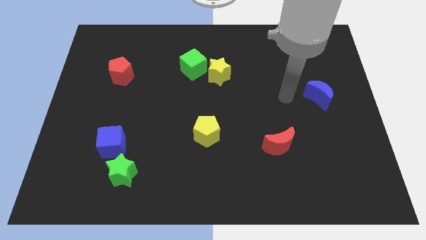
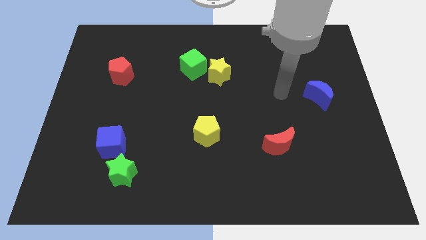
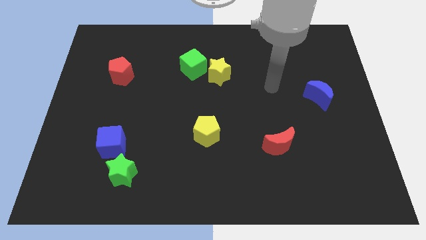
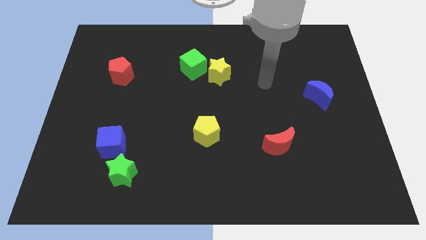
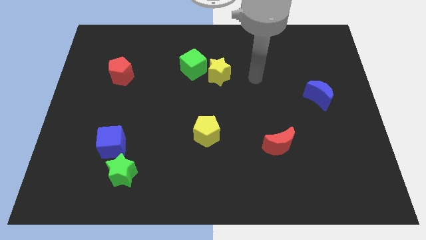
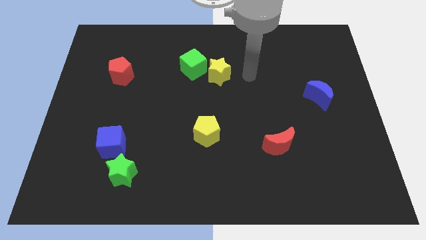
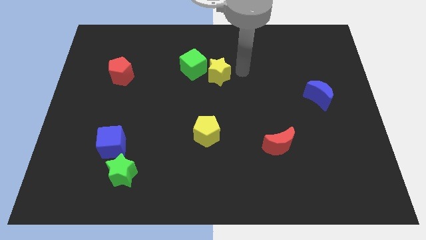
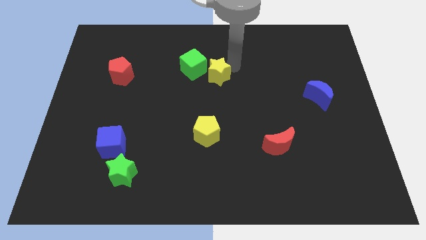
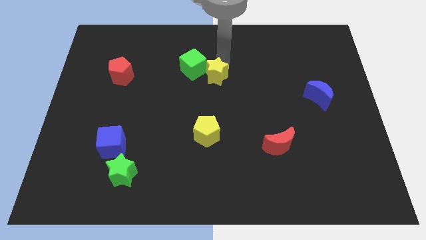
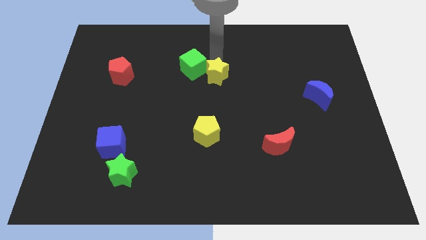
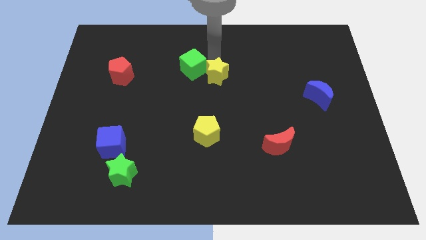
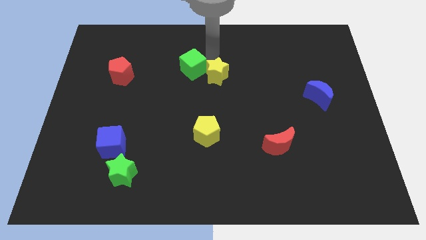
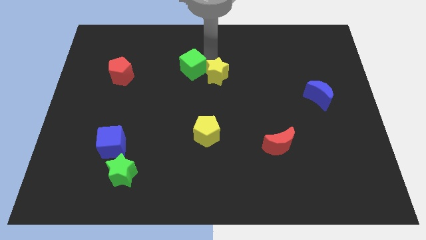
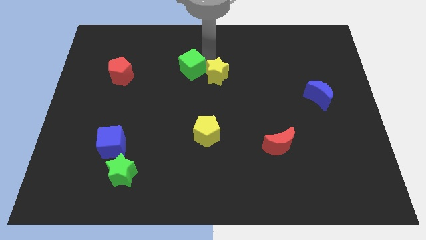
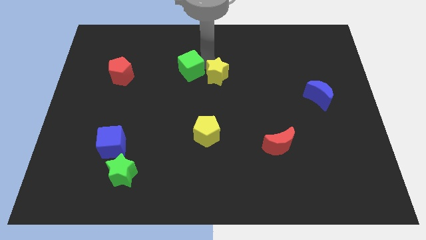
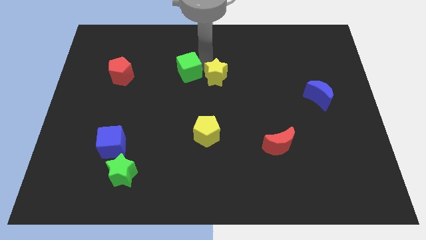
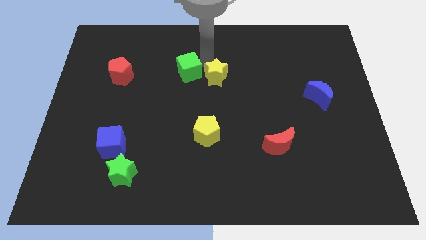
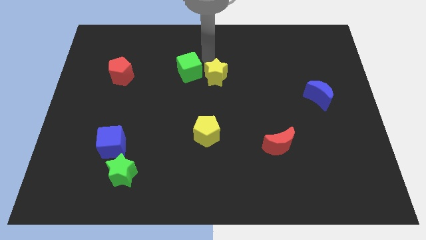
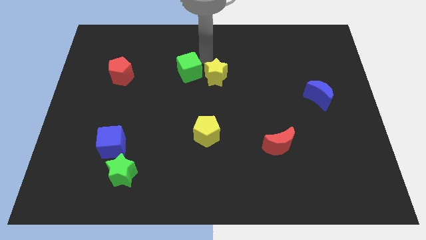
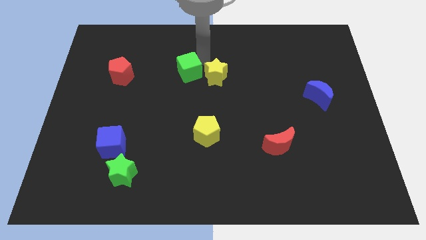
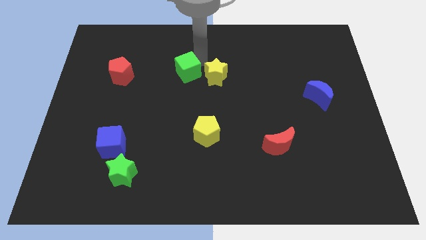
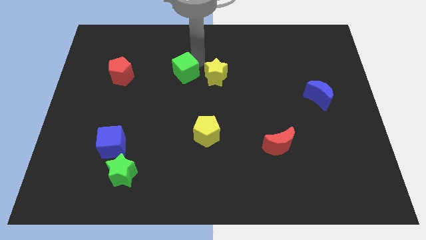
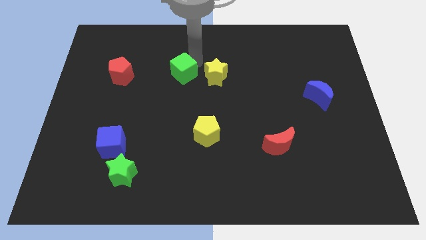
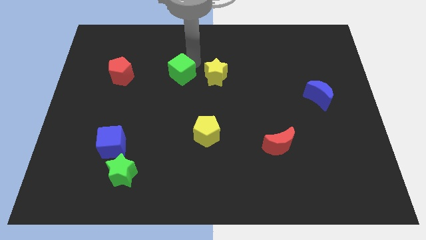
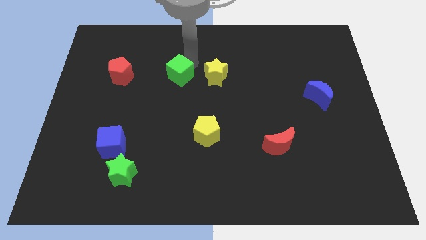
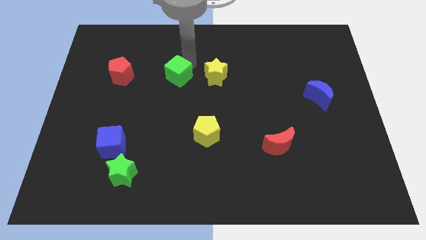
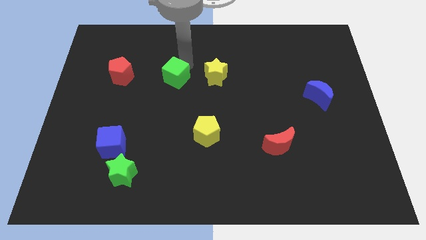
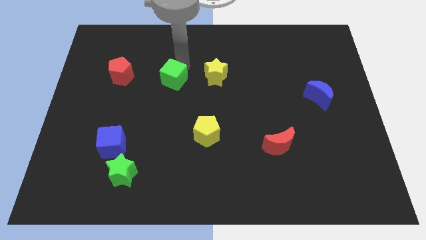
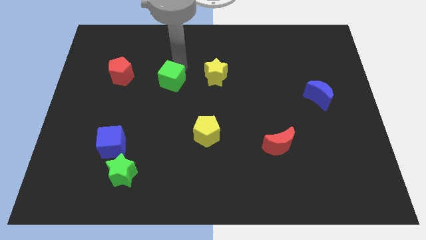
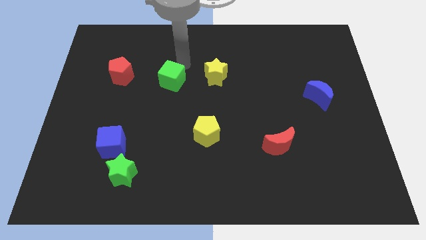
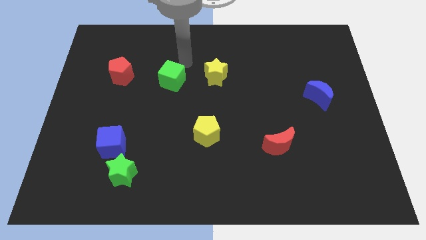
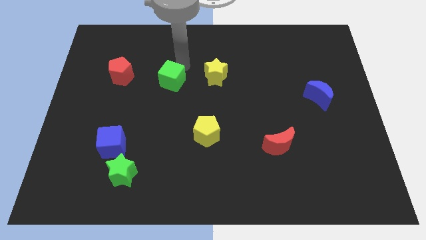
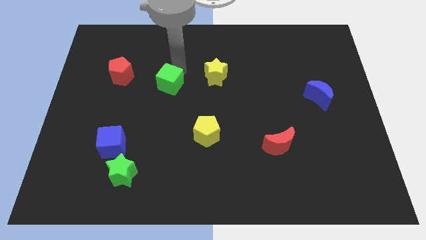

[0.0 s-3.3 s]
slightly slide the green cube diagonally downwards and left

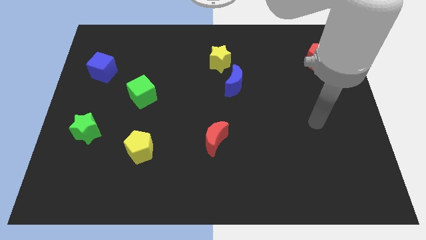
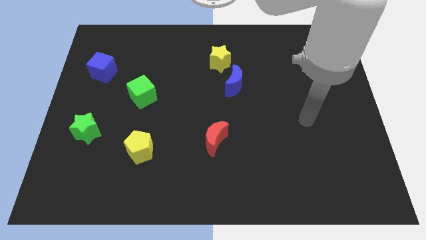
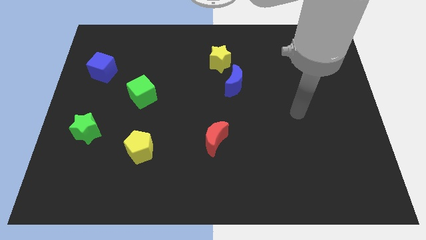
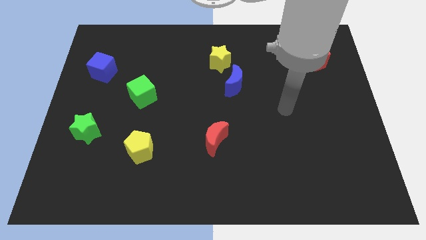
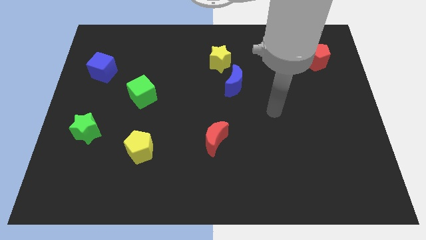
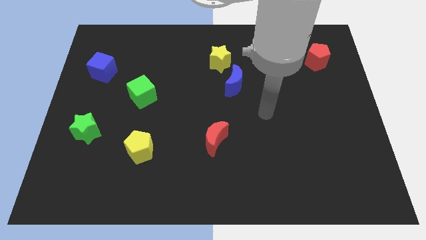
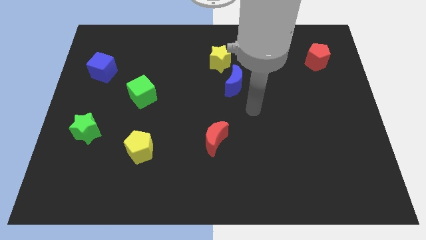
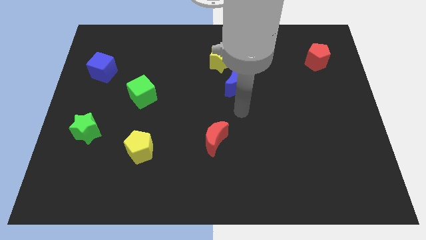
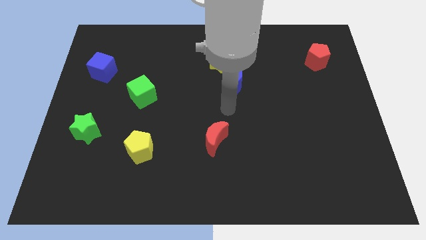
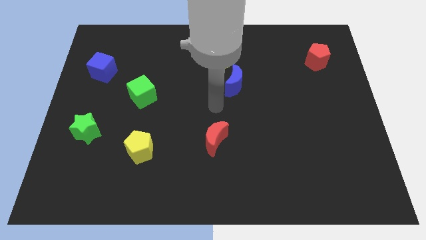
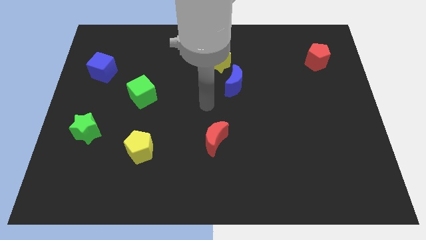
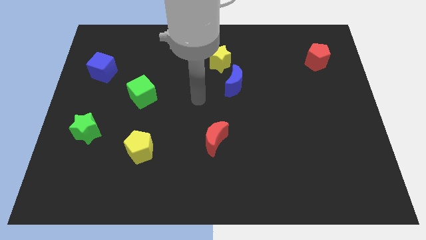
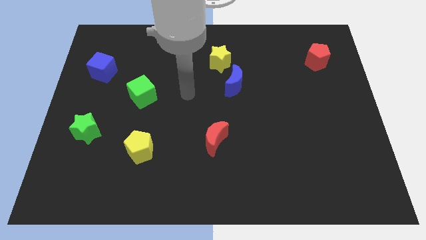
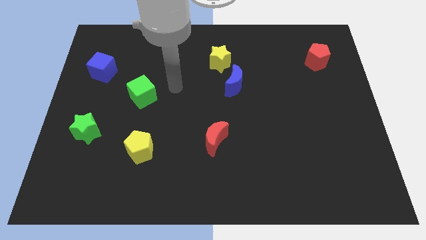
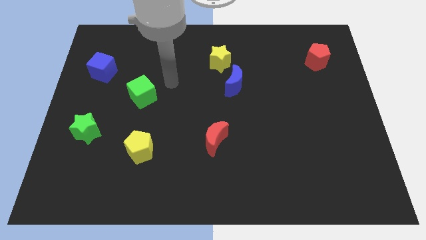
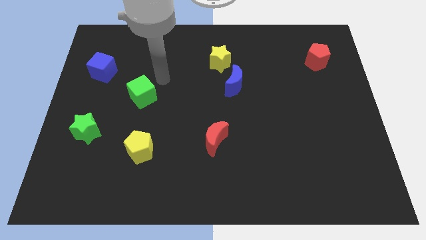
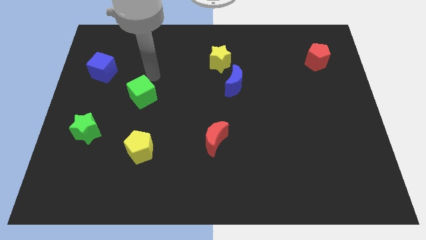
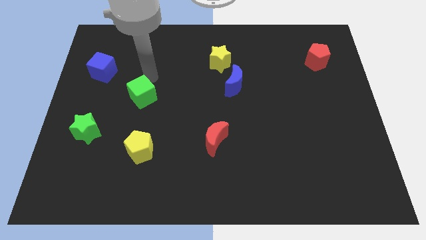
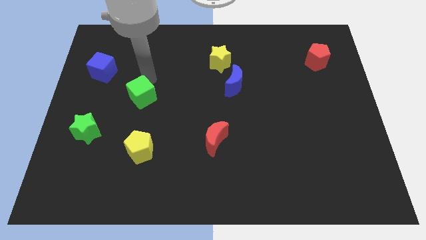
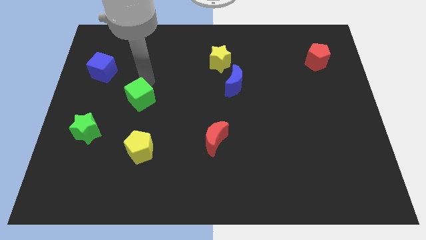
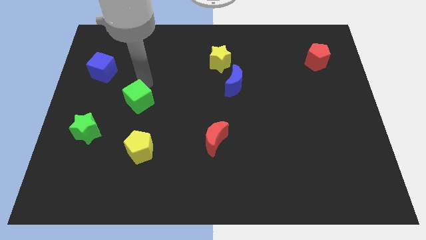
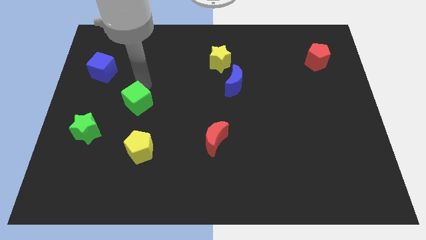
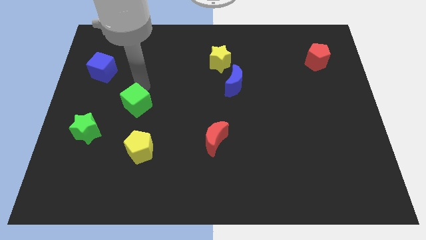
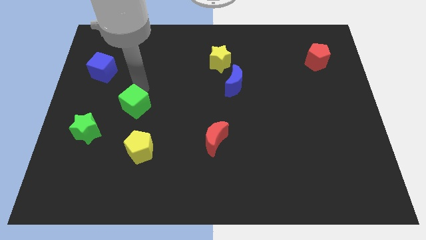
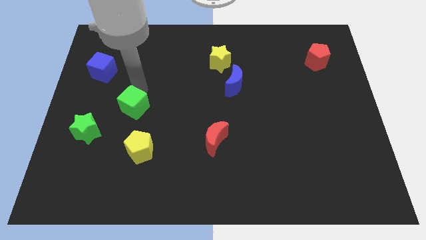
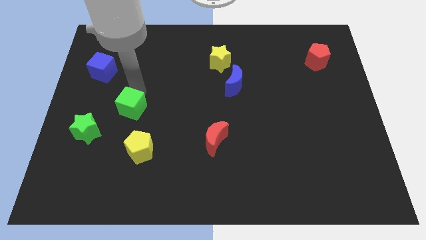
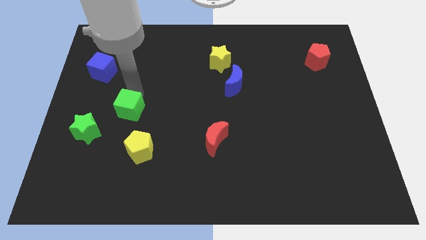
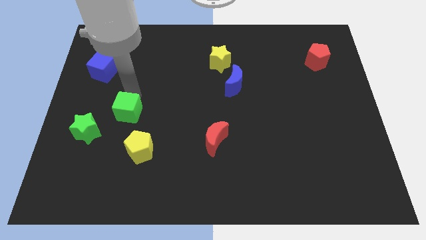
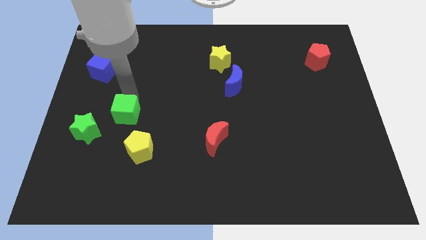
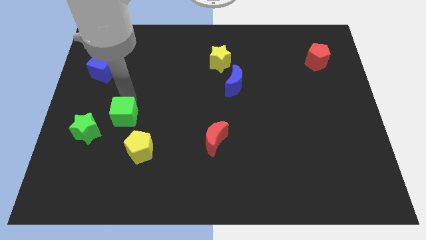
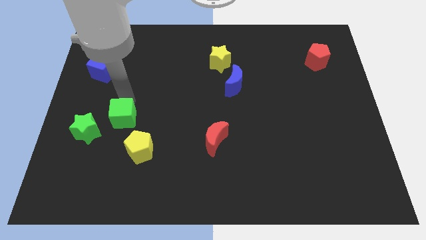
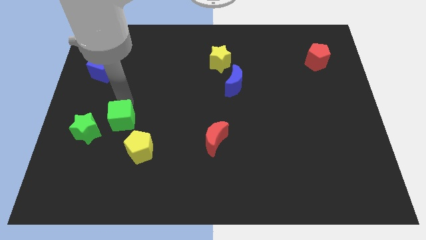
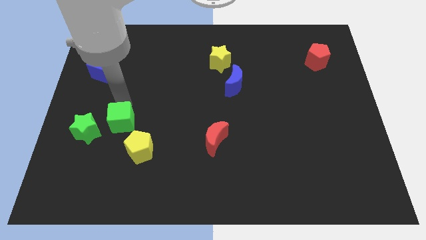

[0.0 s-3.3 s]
push the green cube downwards a bit

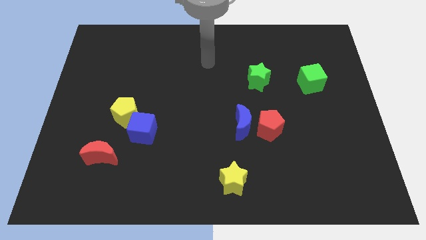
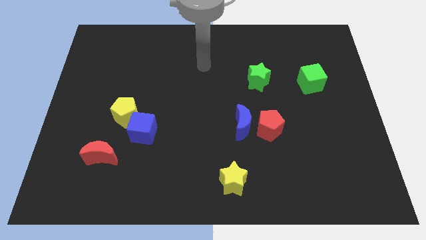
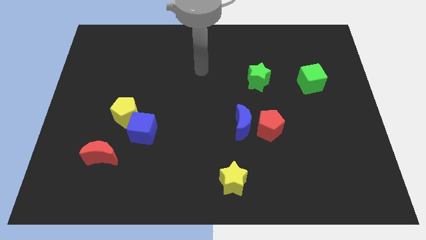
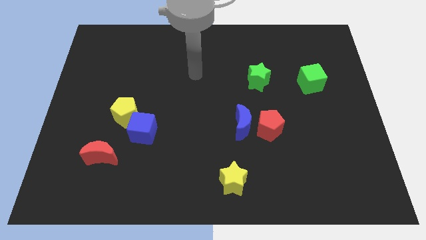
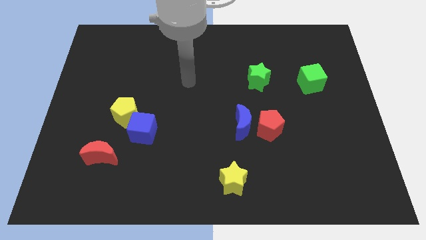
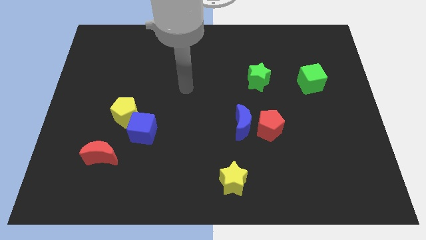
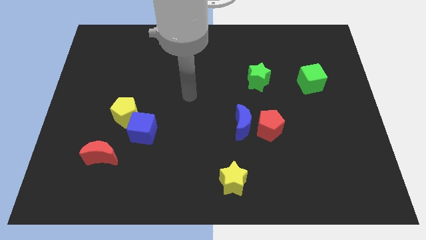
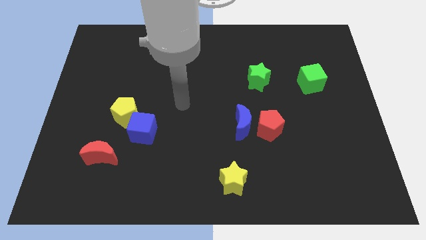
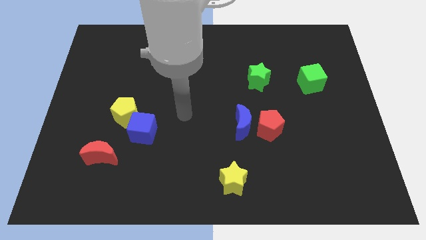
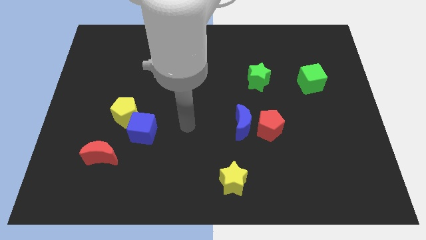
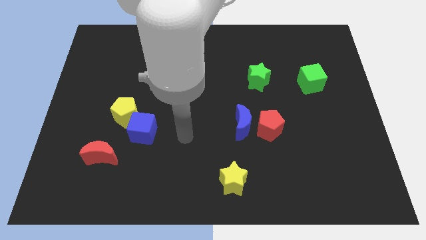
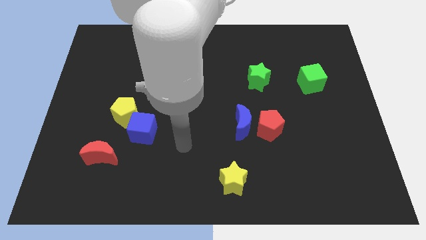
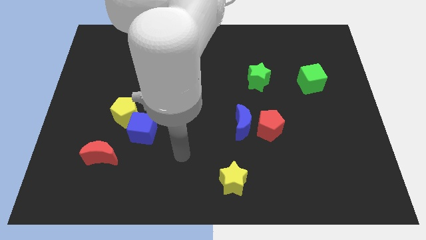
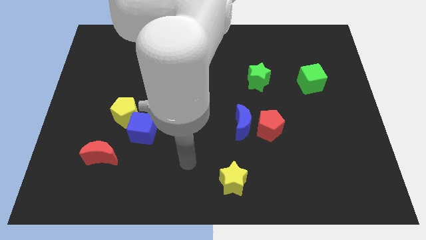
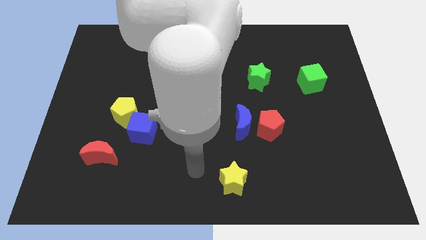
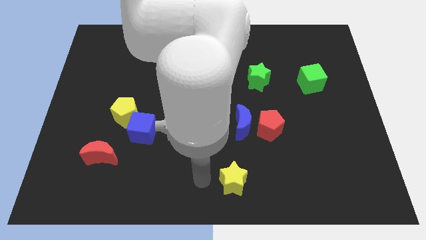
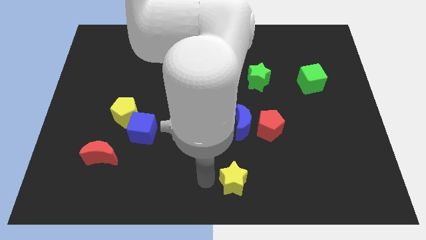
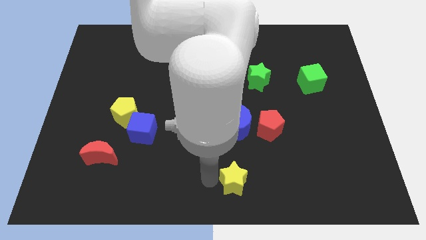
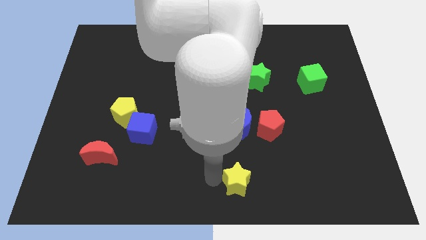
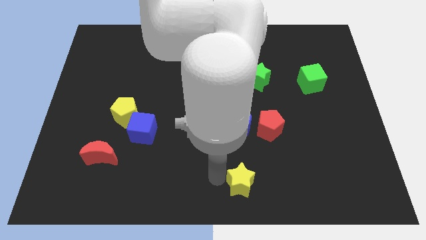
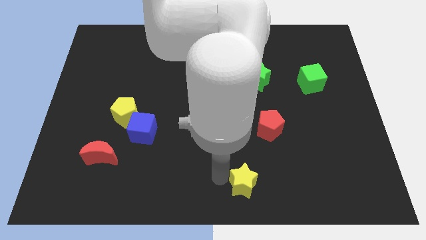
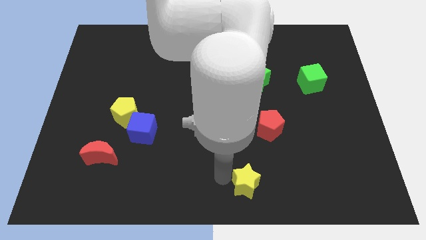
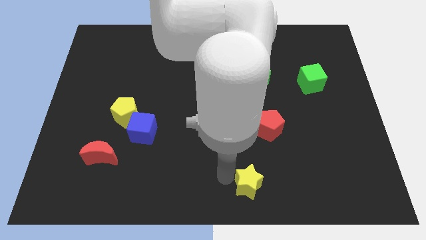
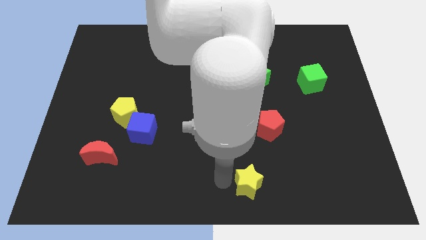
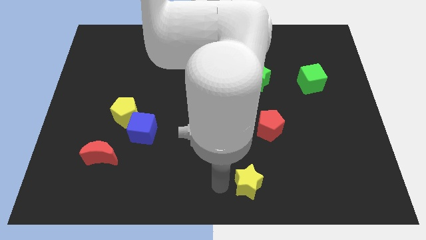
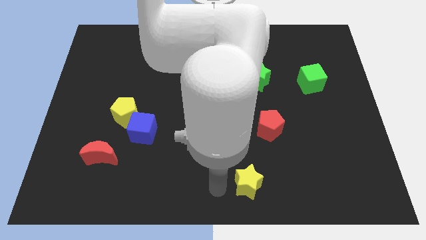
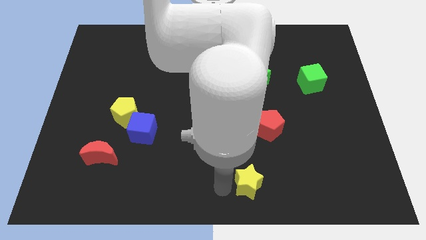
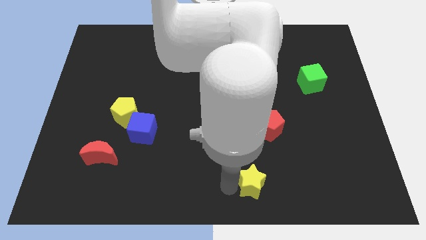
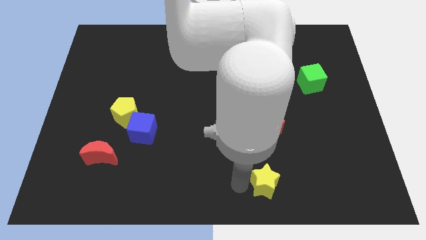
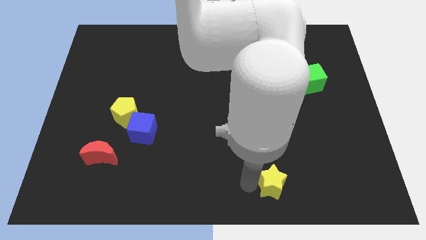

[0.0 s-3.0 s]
slightly move the yellow star right
